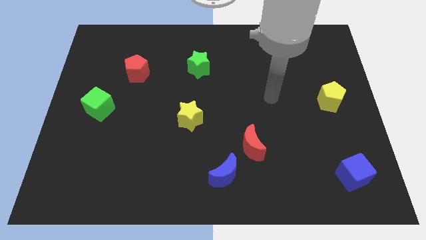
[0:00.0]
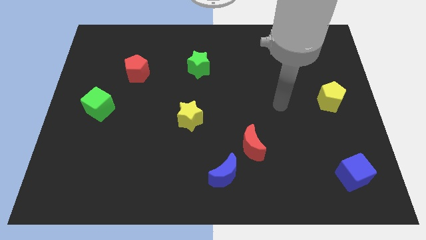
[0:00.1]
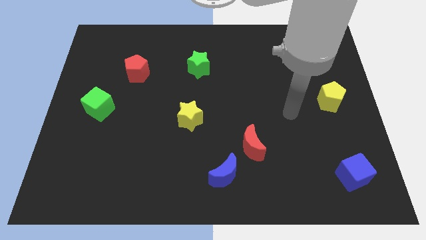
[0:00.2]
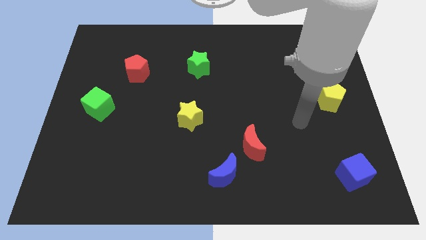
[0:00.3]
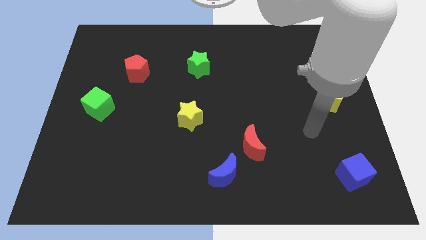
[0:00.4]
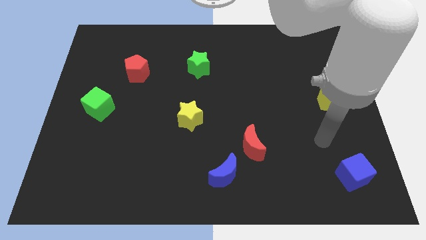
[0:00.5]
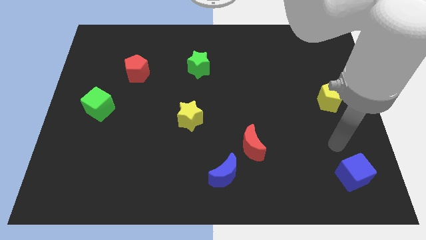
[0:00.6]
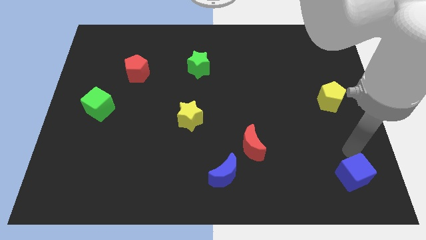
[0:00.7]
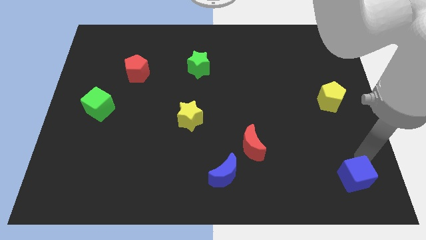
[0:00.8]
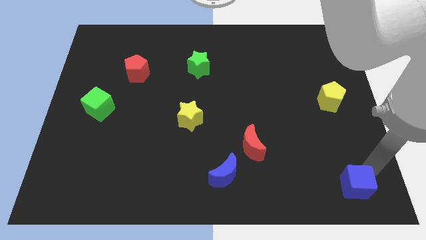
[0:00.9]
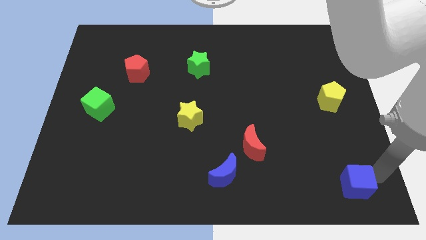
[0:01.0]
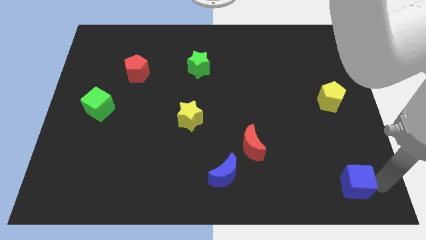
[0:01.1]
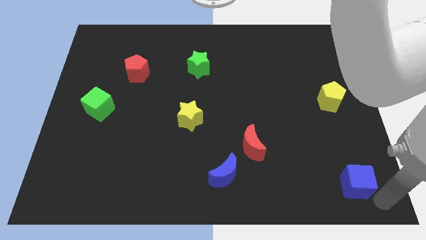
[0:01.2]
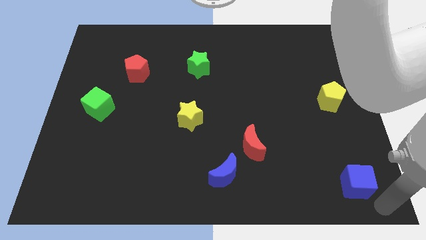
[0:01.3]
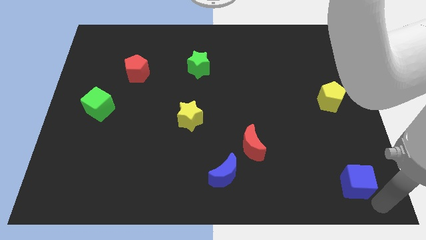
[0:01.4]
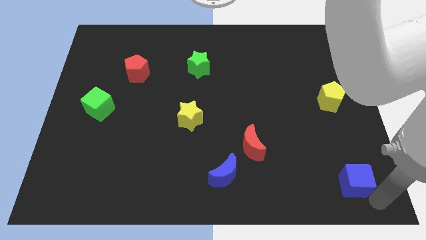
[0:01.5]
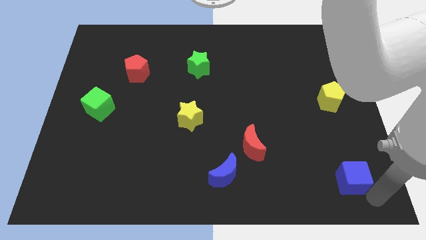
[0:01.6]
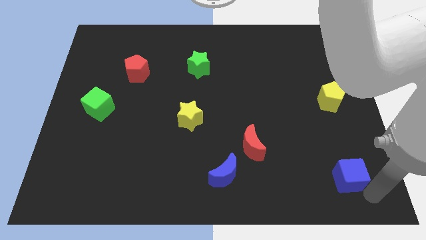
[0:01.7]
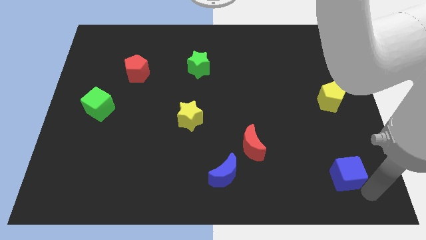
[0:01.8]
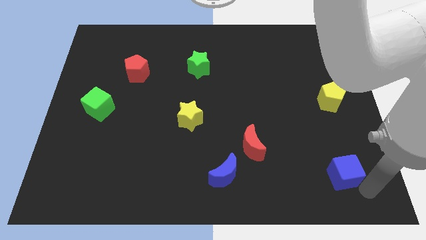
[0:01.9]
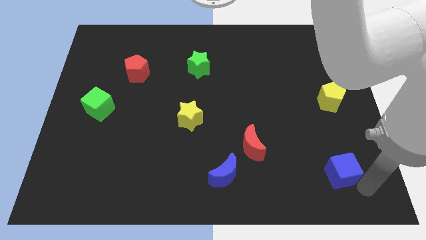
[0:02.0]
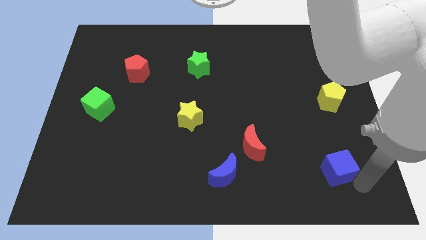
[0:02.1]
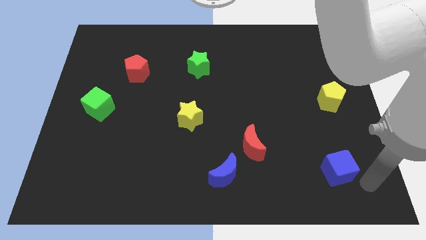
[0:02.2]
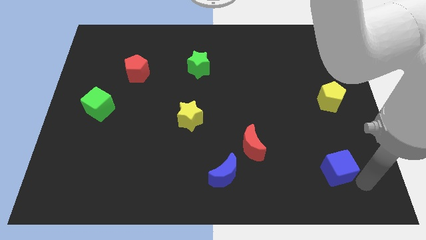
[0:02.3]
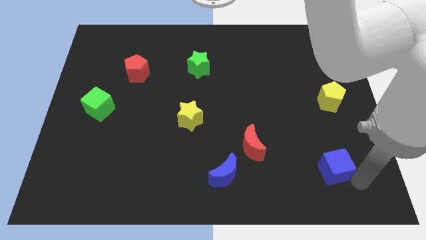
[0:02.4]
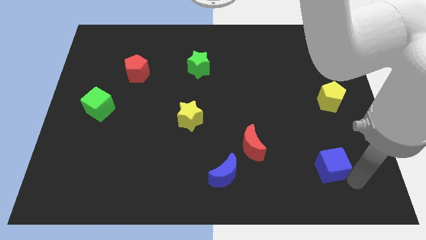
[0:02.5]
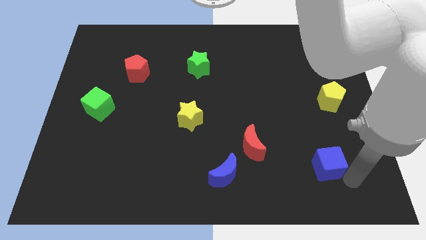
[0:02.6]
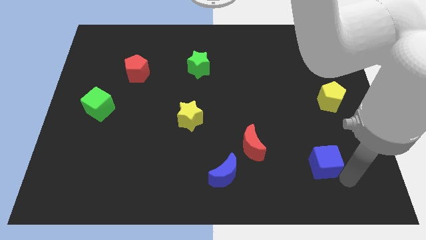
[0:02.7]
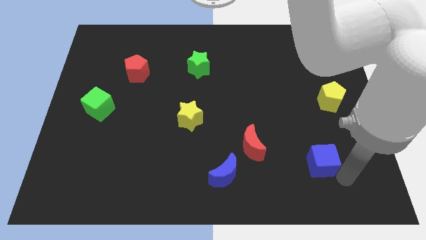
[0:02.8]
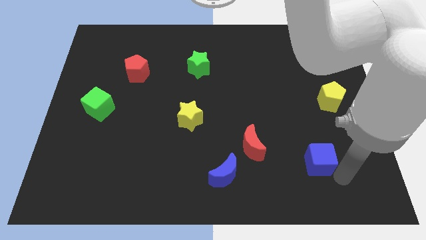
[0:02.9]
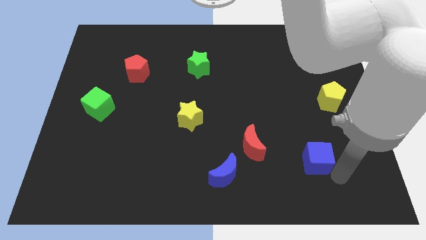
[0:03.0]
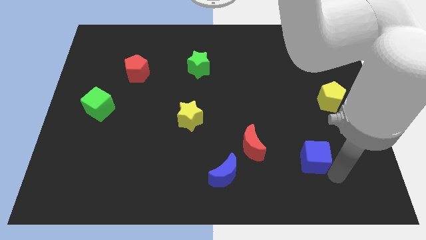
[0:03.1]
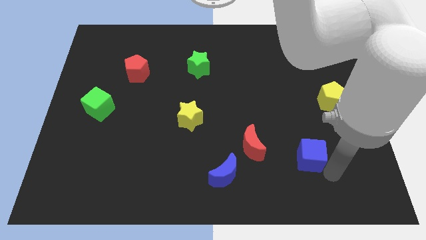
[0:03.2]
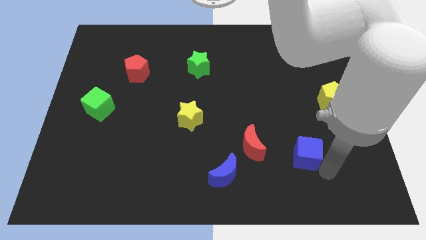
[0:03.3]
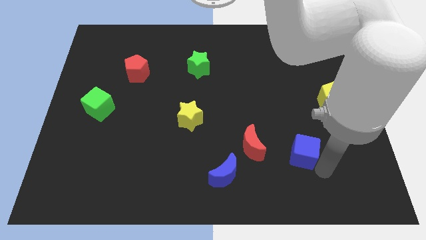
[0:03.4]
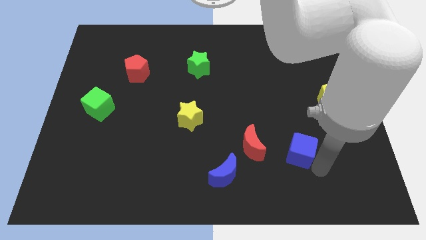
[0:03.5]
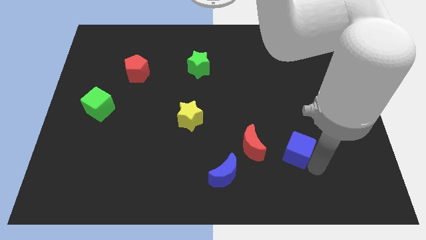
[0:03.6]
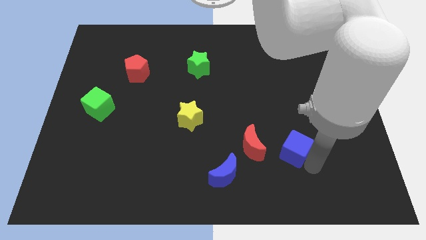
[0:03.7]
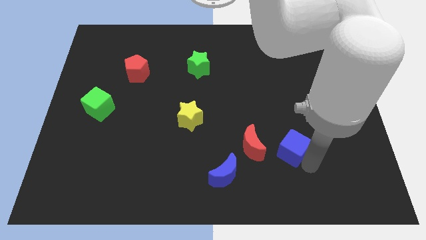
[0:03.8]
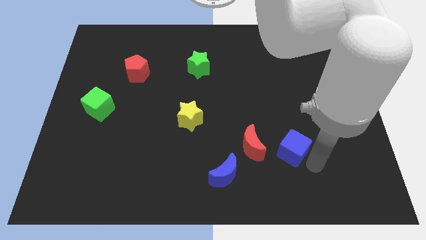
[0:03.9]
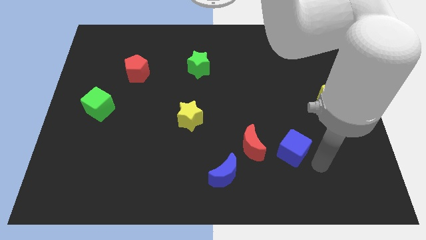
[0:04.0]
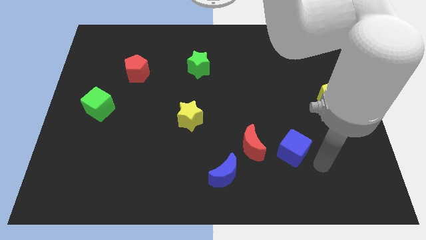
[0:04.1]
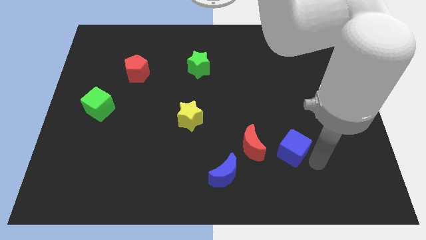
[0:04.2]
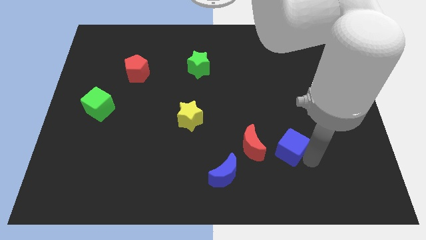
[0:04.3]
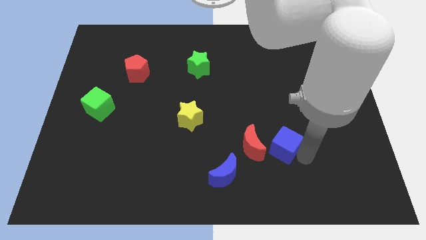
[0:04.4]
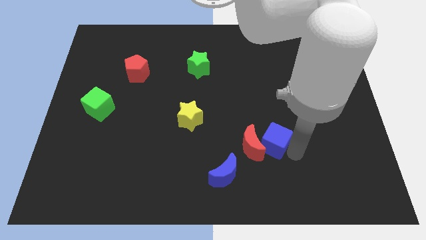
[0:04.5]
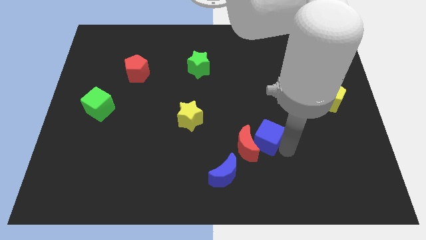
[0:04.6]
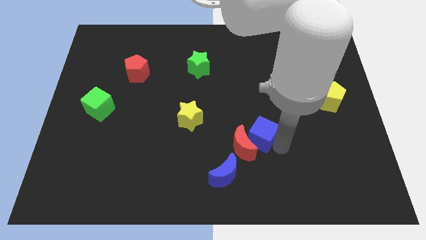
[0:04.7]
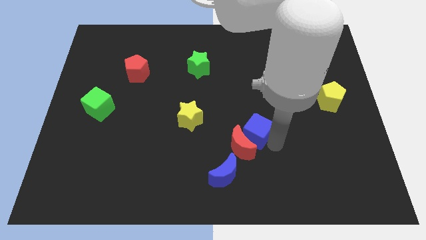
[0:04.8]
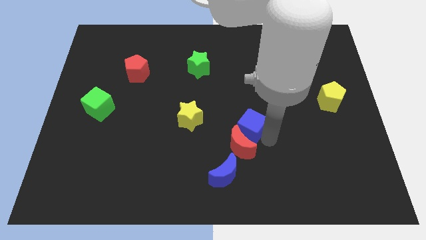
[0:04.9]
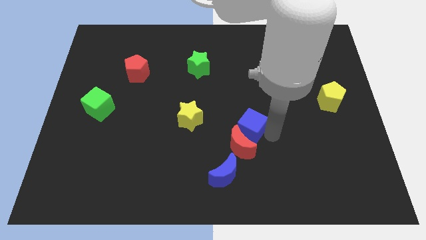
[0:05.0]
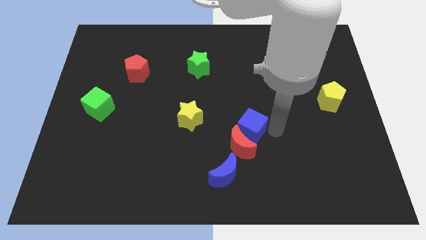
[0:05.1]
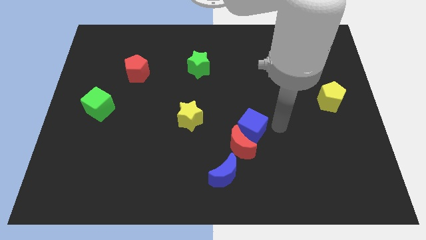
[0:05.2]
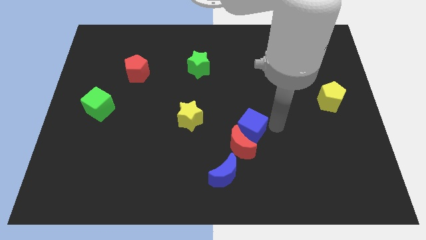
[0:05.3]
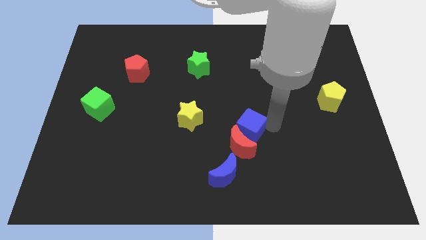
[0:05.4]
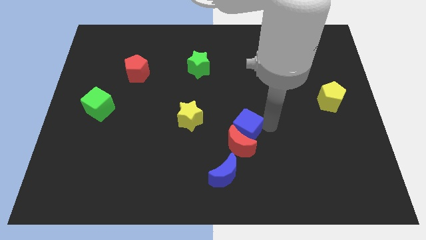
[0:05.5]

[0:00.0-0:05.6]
push the blue cube above the blue moon

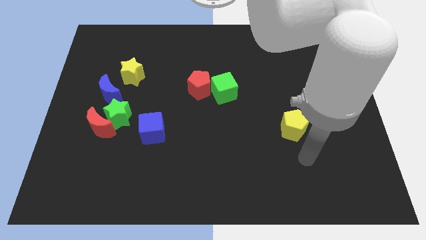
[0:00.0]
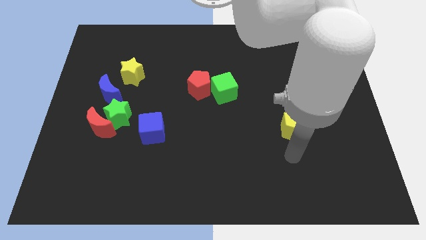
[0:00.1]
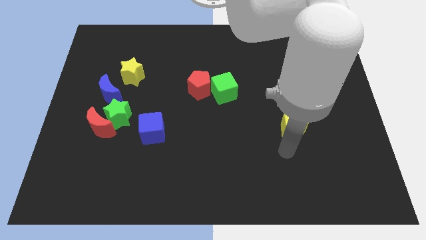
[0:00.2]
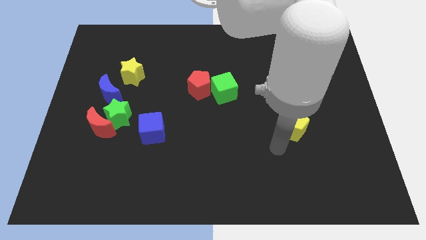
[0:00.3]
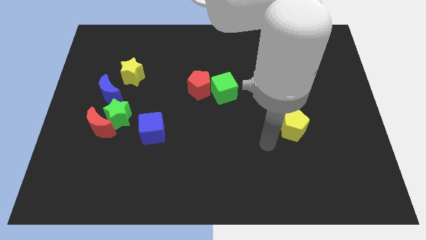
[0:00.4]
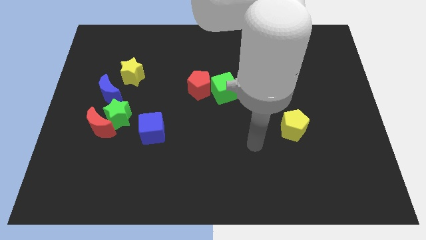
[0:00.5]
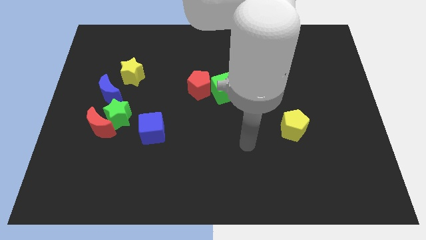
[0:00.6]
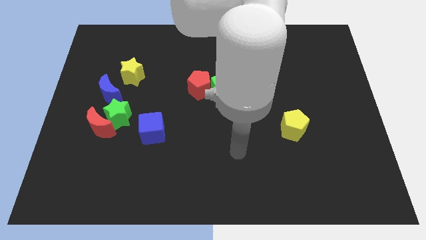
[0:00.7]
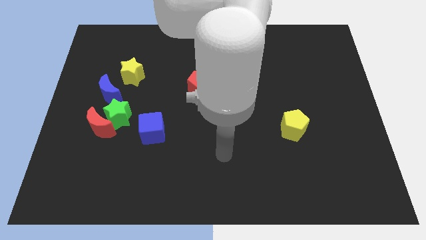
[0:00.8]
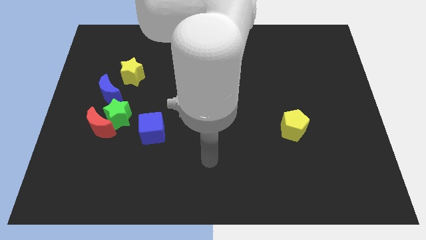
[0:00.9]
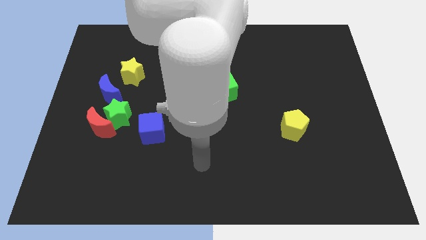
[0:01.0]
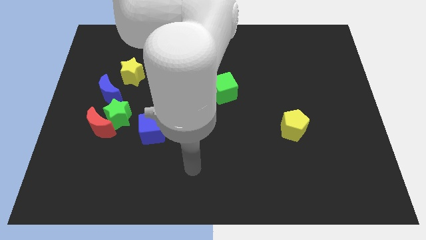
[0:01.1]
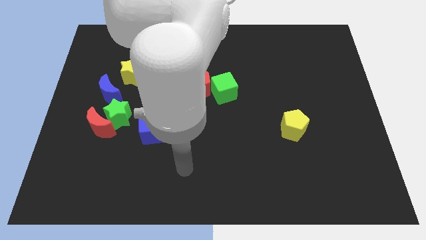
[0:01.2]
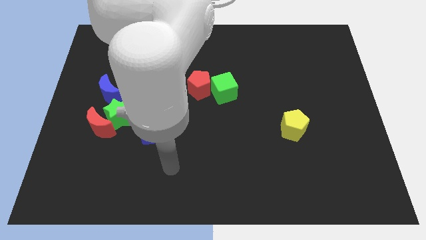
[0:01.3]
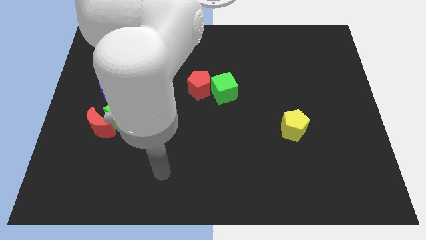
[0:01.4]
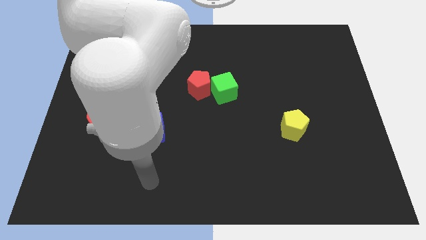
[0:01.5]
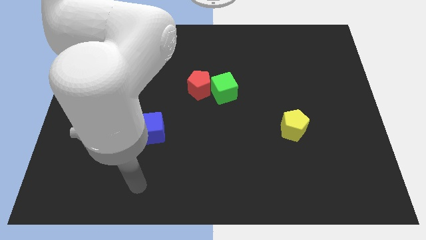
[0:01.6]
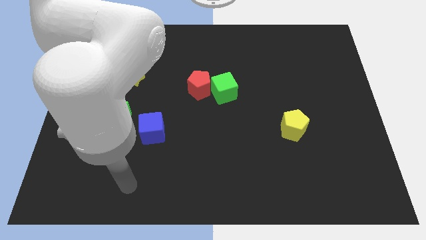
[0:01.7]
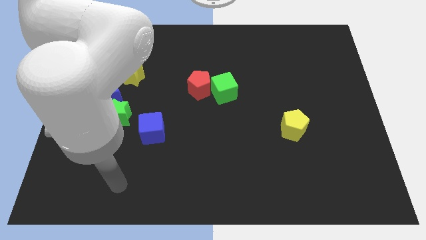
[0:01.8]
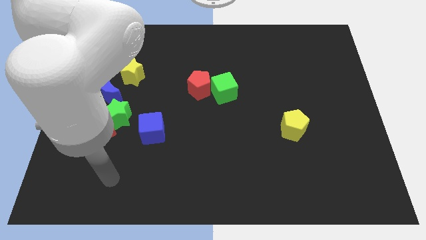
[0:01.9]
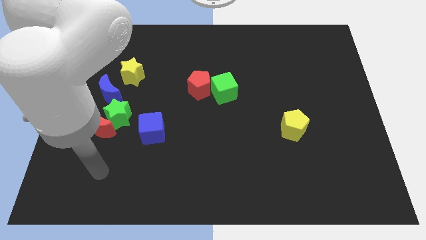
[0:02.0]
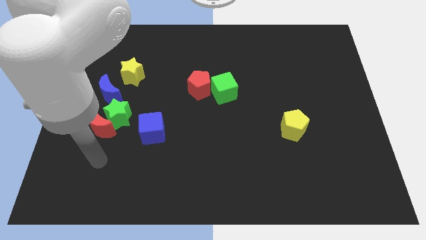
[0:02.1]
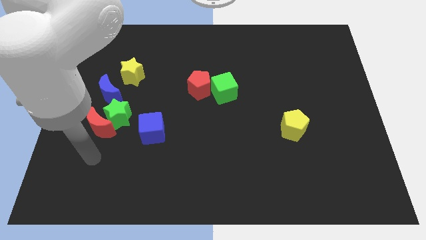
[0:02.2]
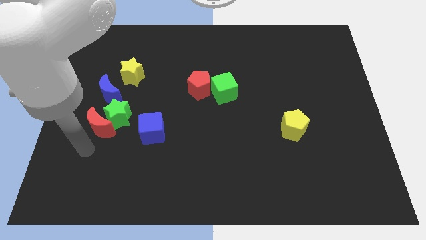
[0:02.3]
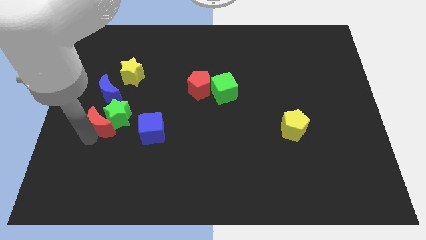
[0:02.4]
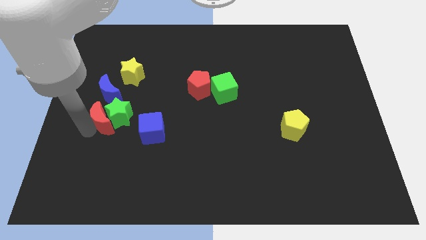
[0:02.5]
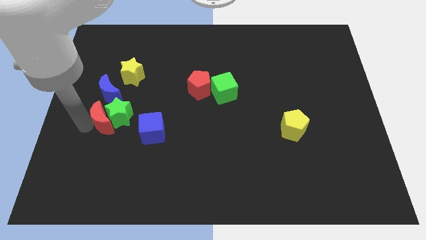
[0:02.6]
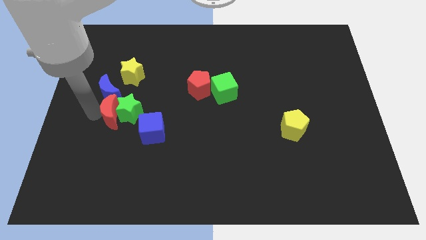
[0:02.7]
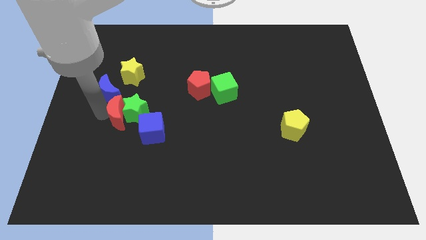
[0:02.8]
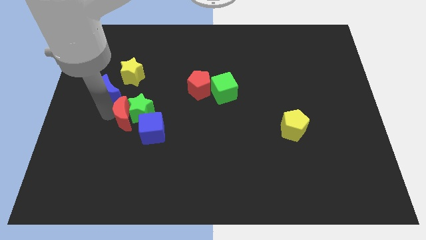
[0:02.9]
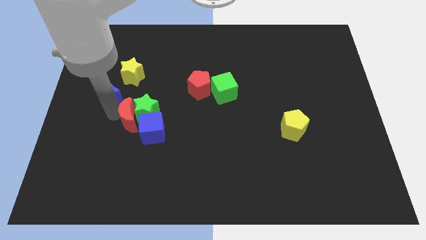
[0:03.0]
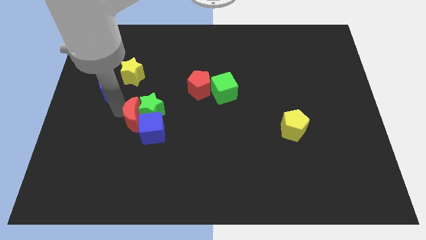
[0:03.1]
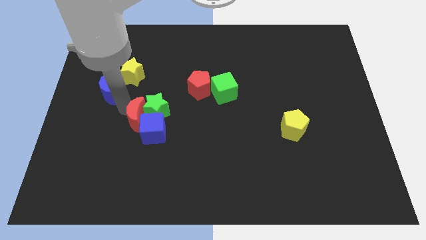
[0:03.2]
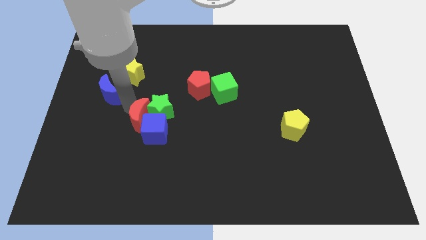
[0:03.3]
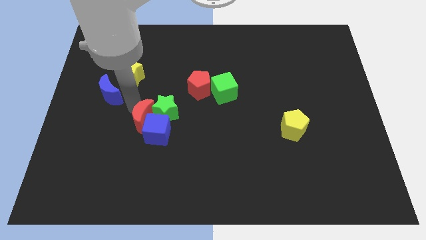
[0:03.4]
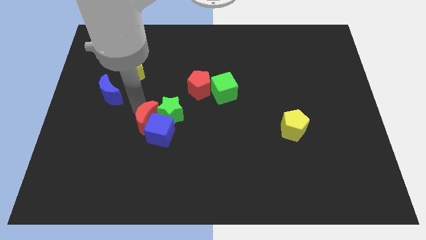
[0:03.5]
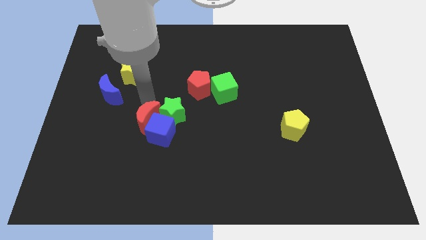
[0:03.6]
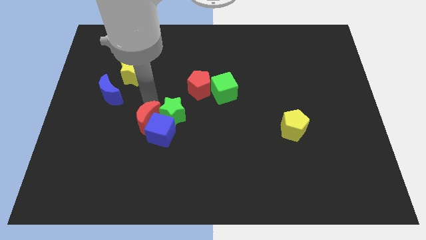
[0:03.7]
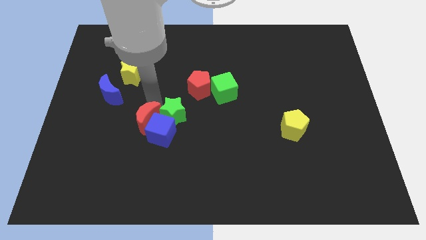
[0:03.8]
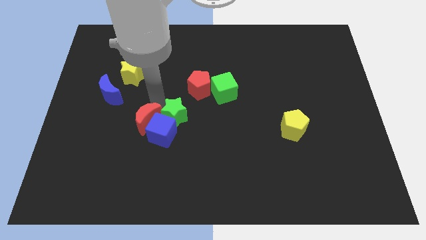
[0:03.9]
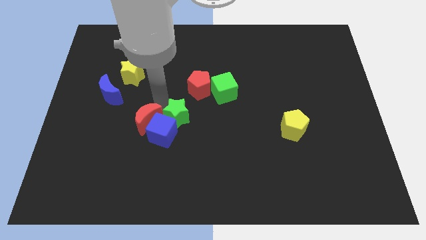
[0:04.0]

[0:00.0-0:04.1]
slide the green star just right of the blue cube
